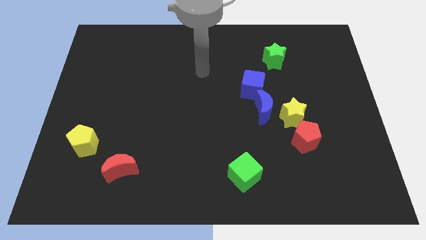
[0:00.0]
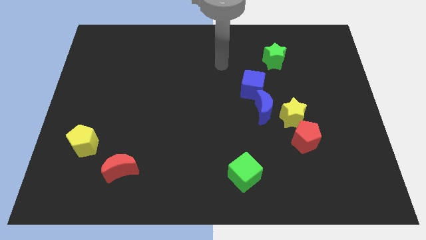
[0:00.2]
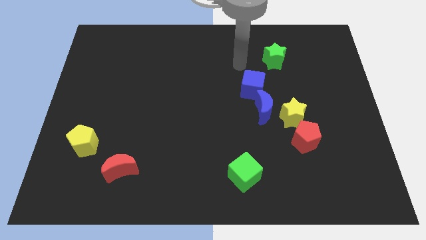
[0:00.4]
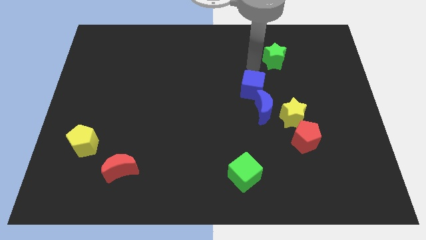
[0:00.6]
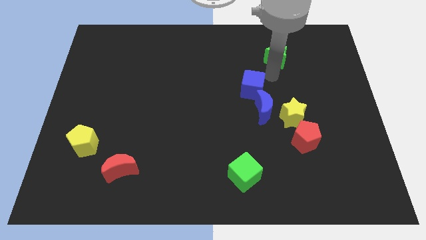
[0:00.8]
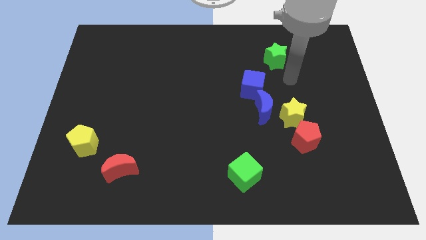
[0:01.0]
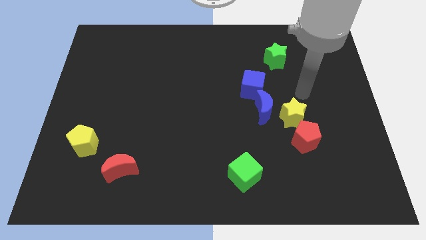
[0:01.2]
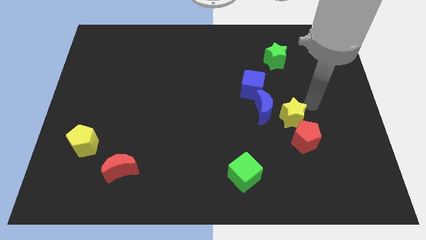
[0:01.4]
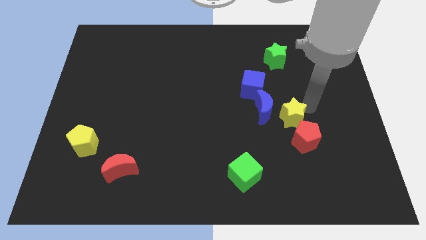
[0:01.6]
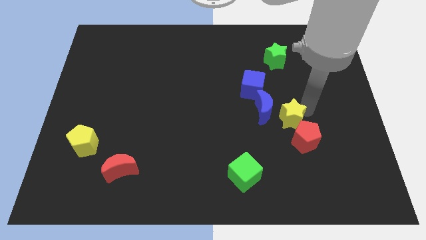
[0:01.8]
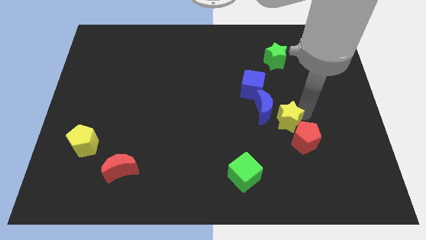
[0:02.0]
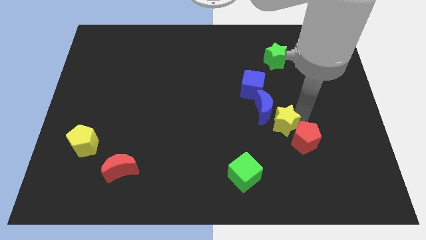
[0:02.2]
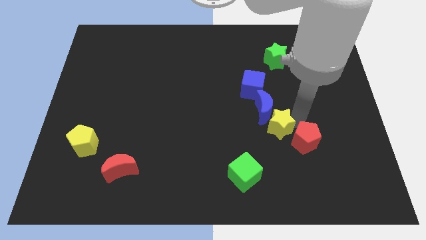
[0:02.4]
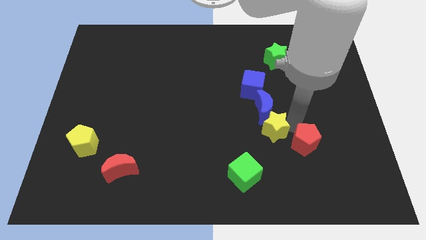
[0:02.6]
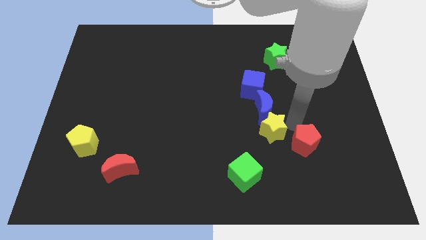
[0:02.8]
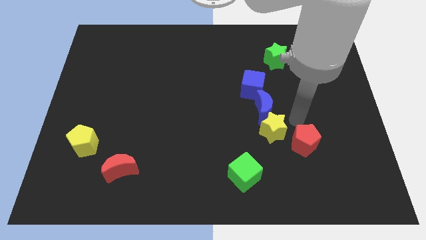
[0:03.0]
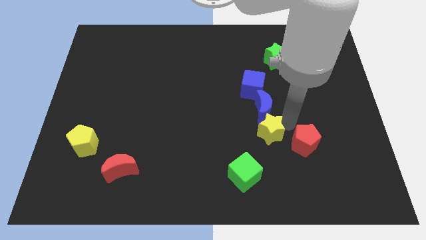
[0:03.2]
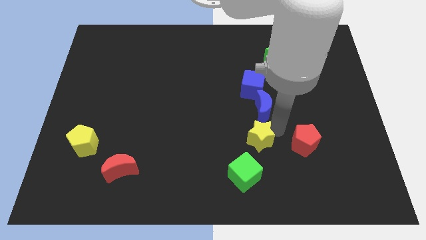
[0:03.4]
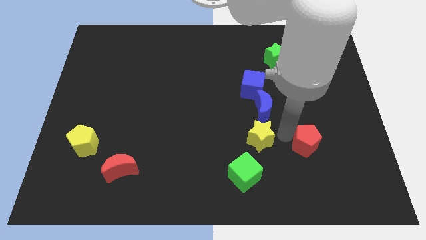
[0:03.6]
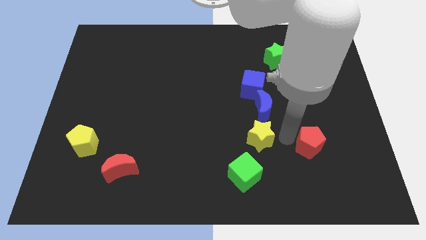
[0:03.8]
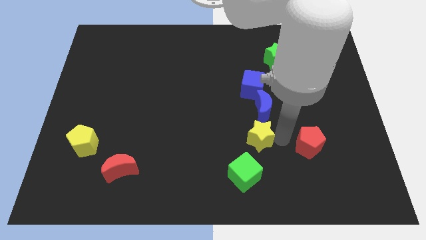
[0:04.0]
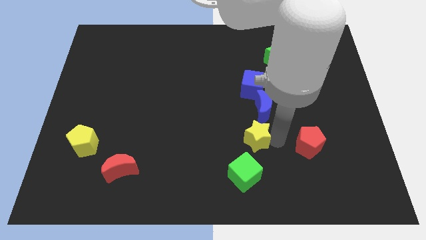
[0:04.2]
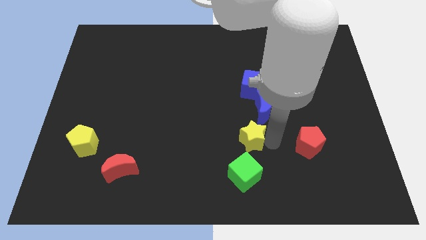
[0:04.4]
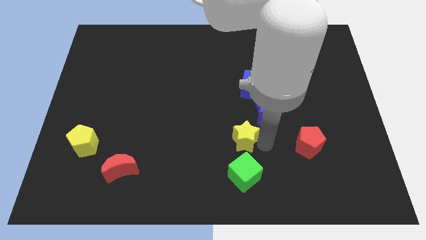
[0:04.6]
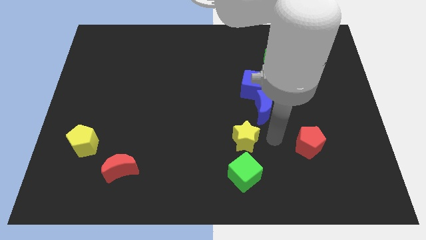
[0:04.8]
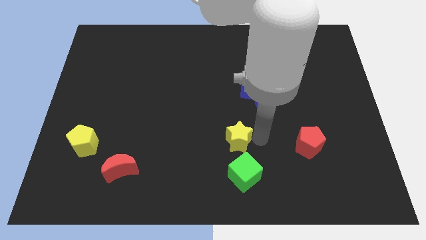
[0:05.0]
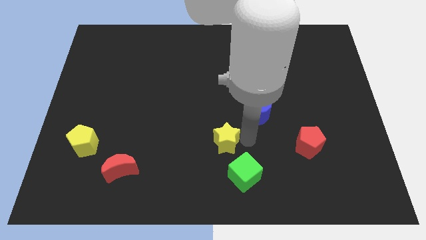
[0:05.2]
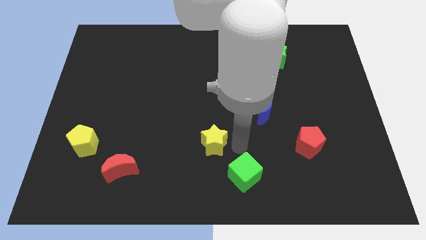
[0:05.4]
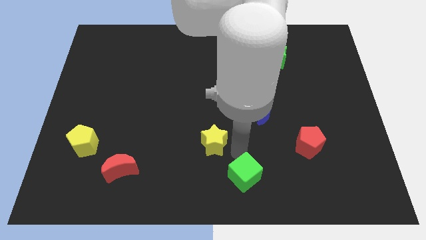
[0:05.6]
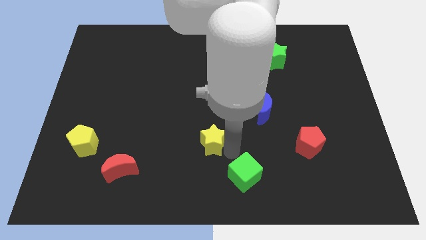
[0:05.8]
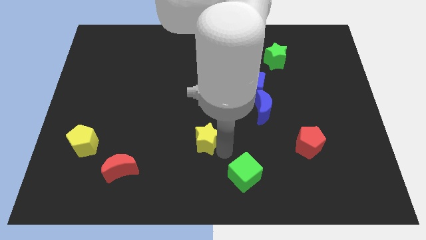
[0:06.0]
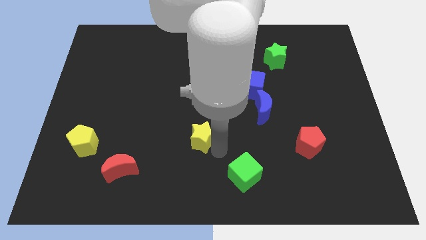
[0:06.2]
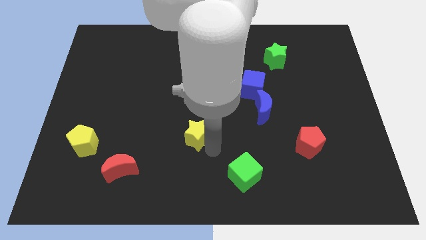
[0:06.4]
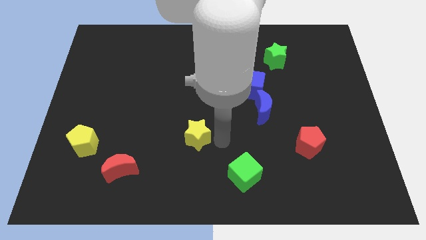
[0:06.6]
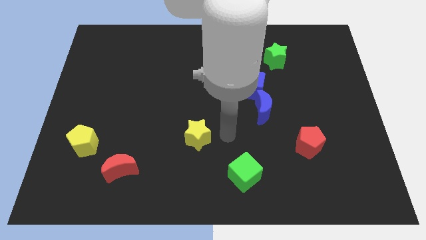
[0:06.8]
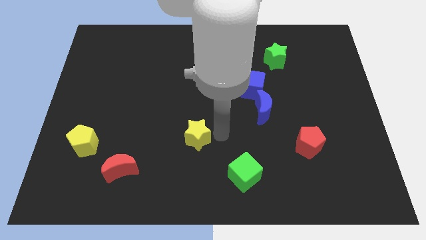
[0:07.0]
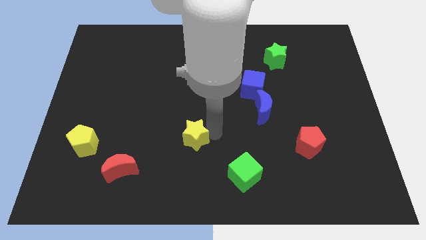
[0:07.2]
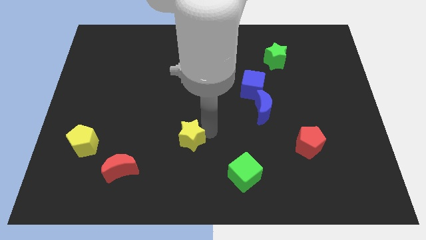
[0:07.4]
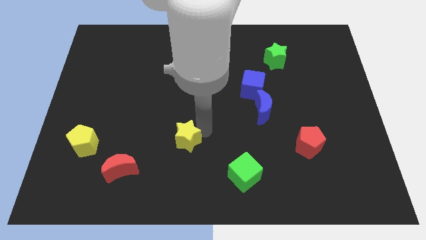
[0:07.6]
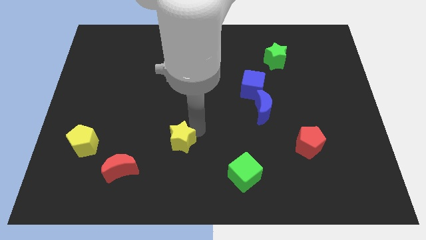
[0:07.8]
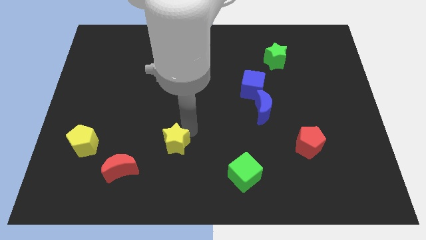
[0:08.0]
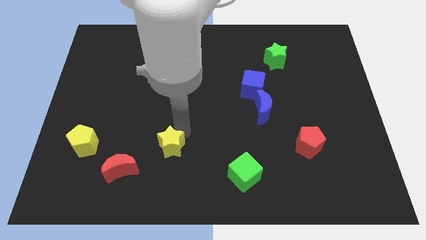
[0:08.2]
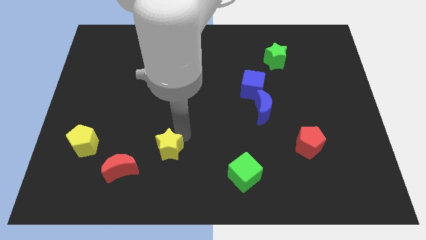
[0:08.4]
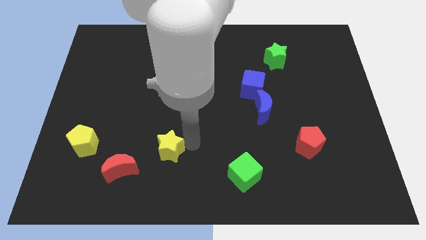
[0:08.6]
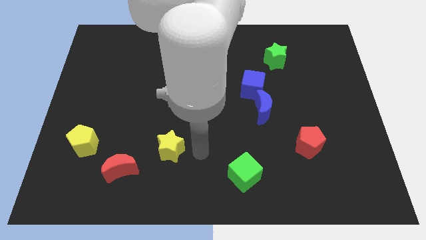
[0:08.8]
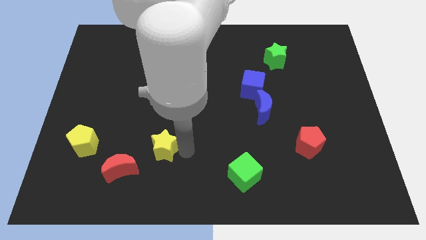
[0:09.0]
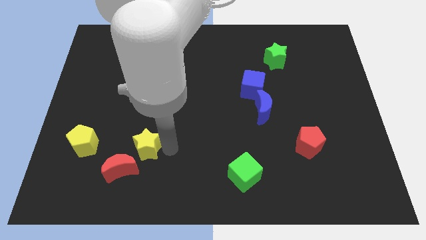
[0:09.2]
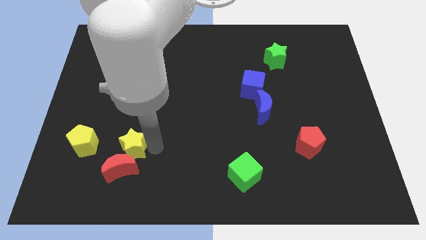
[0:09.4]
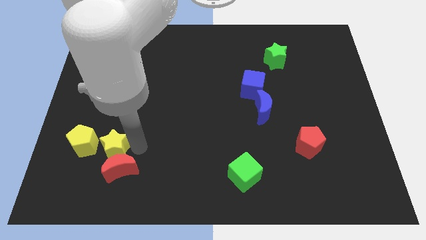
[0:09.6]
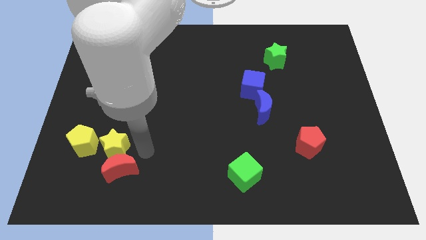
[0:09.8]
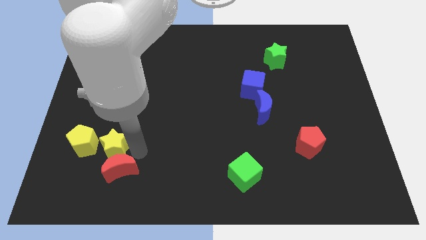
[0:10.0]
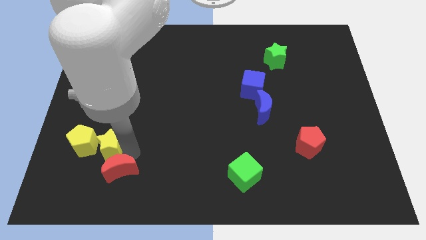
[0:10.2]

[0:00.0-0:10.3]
put the yellow star close to the yellow pentagon

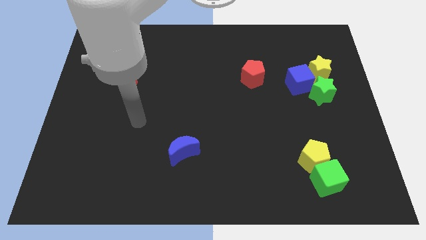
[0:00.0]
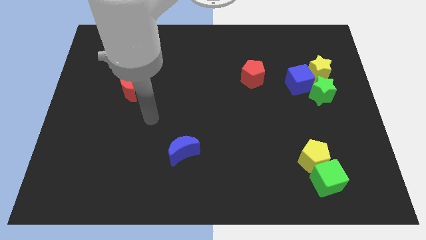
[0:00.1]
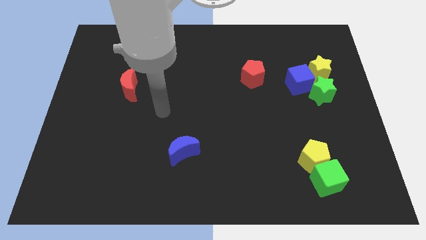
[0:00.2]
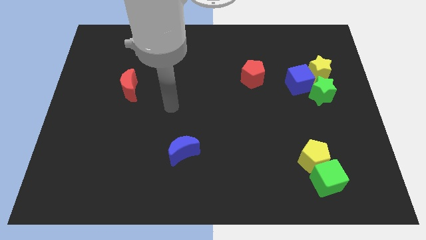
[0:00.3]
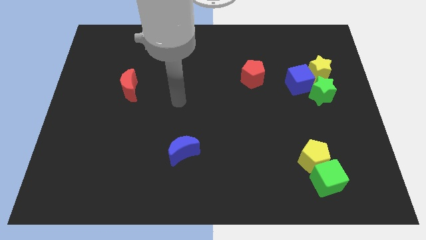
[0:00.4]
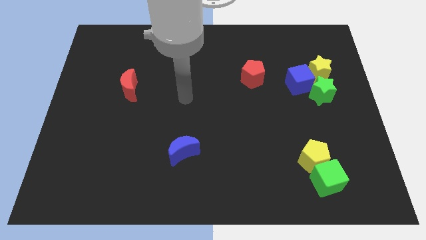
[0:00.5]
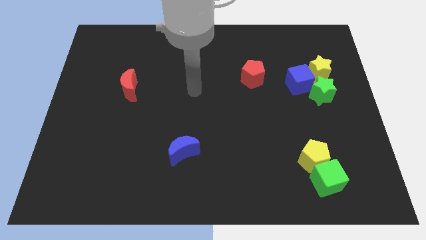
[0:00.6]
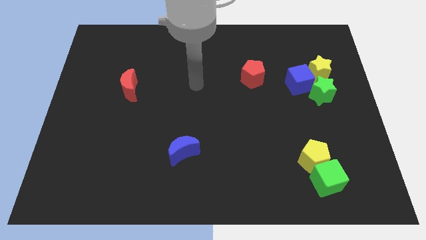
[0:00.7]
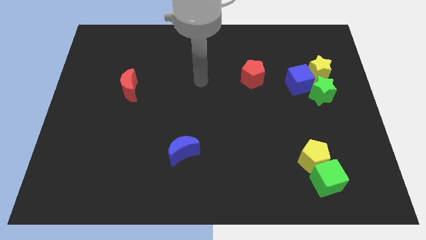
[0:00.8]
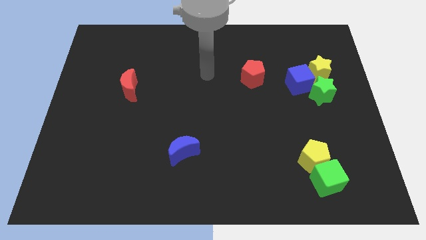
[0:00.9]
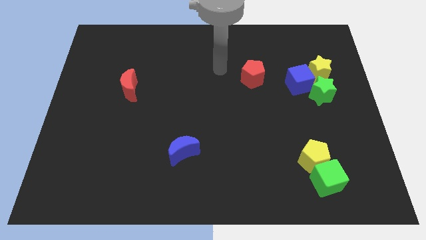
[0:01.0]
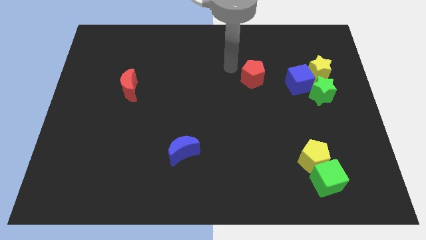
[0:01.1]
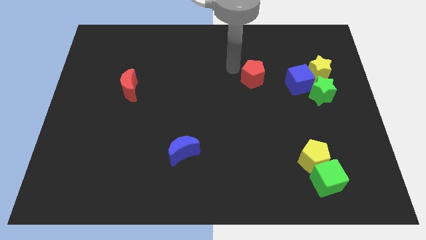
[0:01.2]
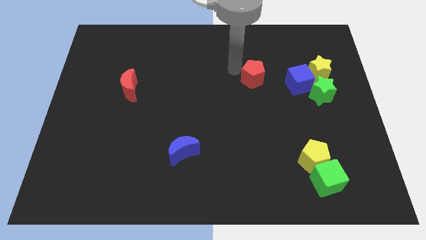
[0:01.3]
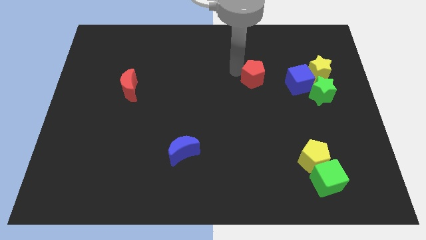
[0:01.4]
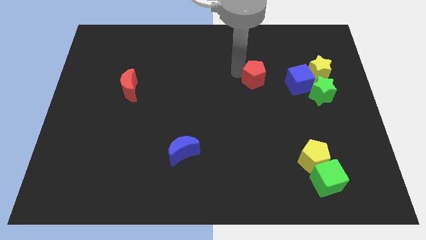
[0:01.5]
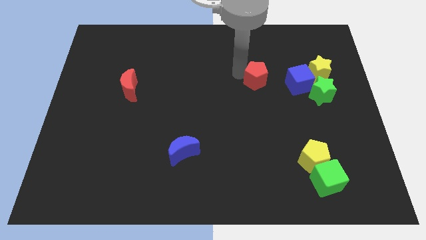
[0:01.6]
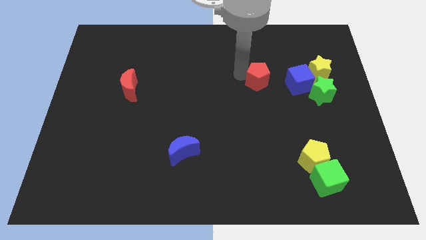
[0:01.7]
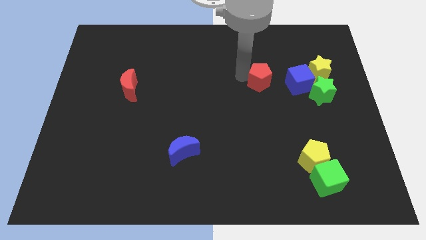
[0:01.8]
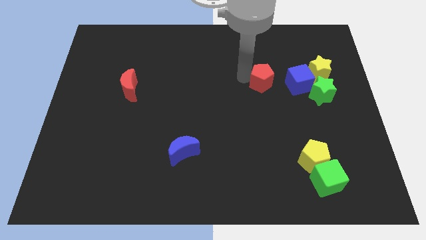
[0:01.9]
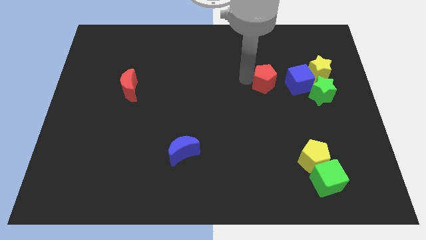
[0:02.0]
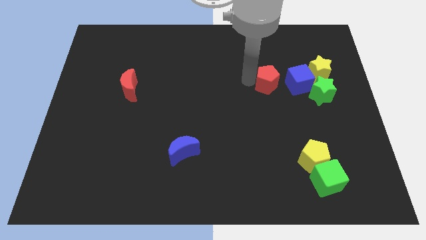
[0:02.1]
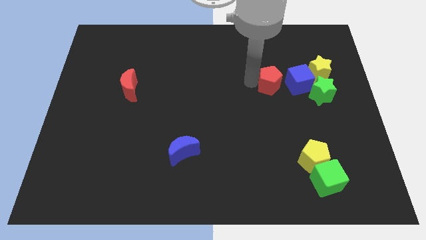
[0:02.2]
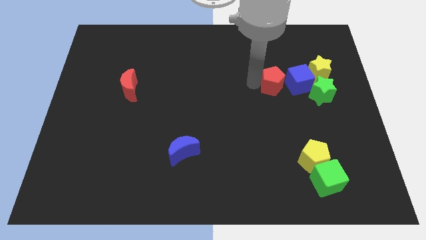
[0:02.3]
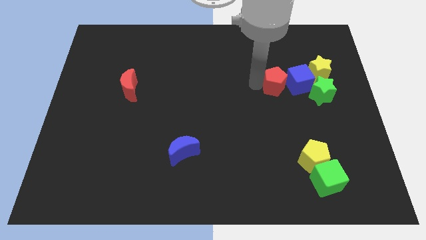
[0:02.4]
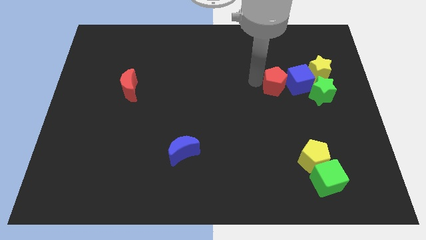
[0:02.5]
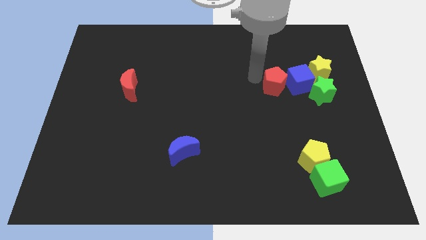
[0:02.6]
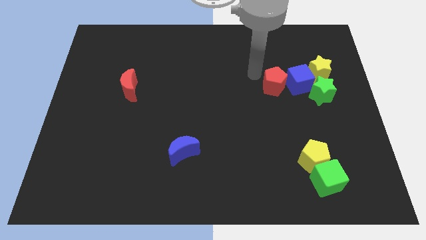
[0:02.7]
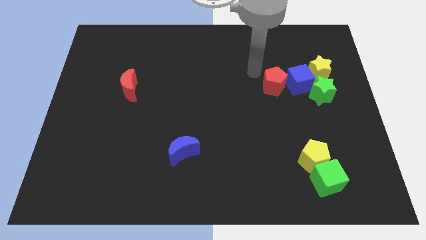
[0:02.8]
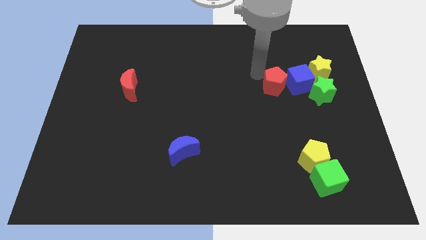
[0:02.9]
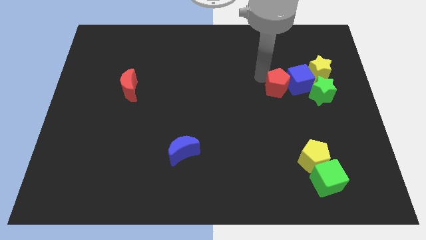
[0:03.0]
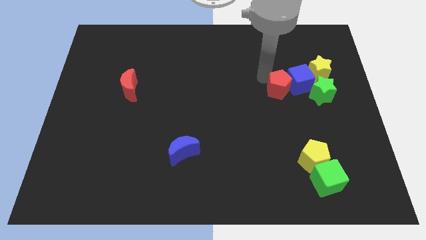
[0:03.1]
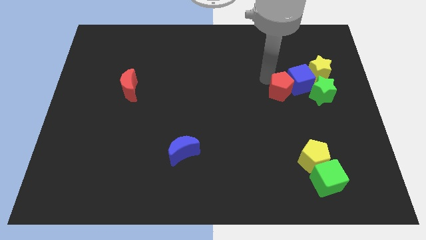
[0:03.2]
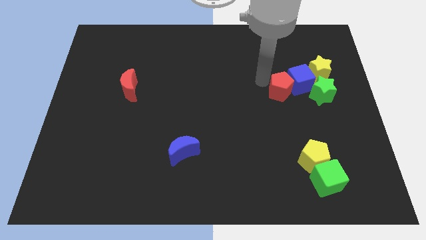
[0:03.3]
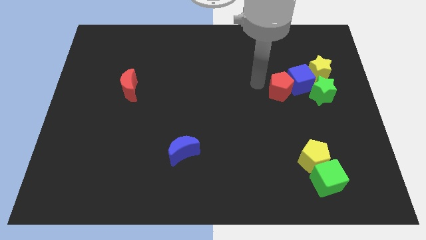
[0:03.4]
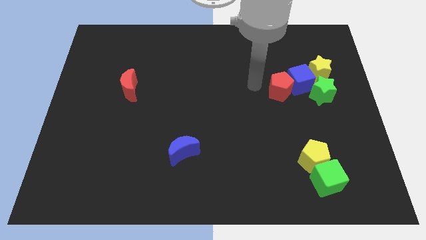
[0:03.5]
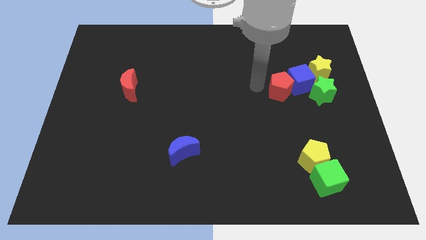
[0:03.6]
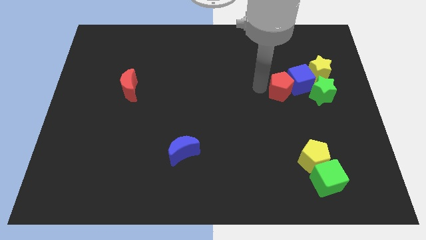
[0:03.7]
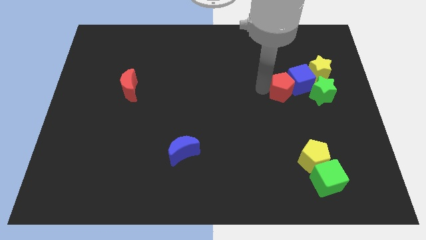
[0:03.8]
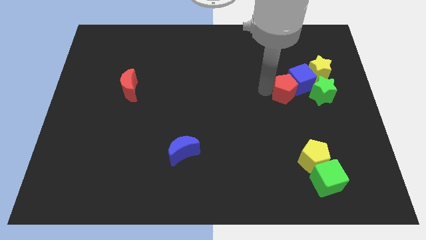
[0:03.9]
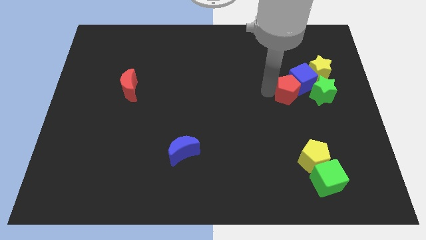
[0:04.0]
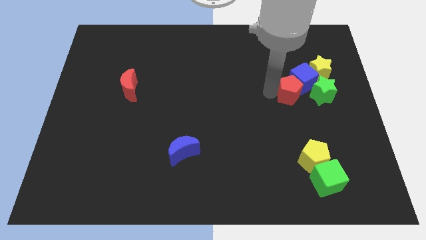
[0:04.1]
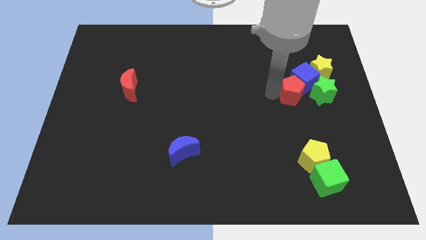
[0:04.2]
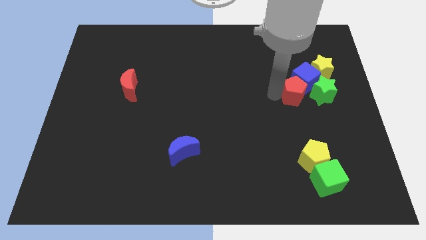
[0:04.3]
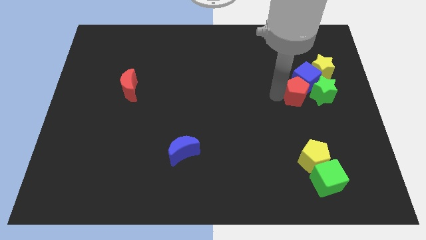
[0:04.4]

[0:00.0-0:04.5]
push the red pentagon next to the green star
